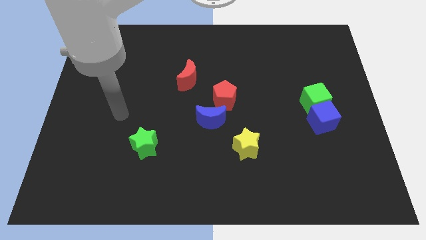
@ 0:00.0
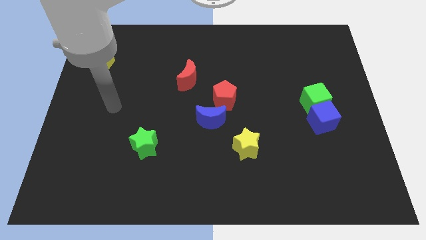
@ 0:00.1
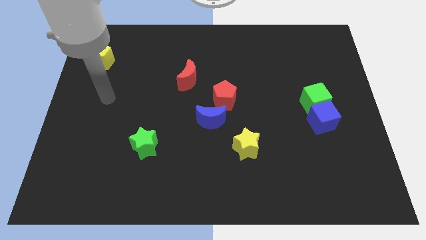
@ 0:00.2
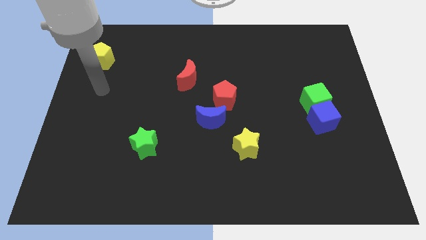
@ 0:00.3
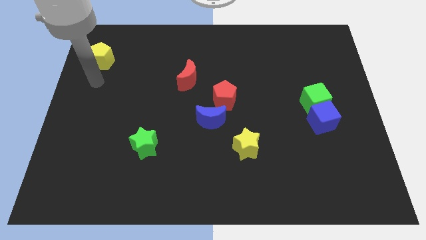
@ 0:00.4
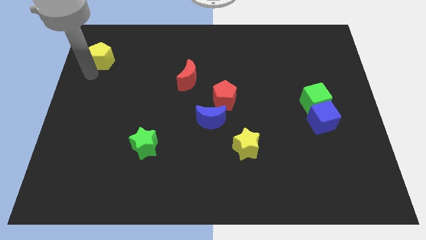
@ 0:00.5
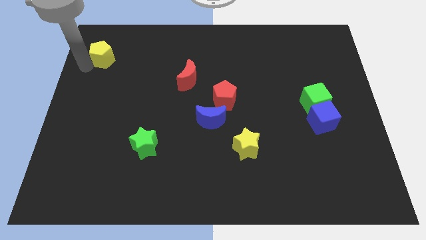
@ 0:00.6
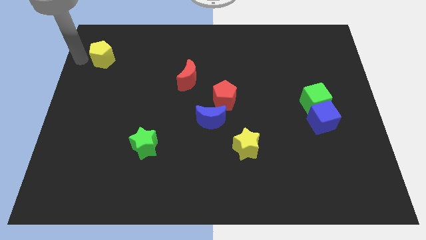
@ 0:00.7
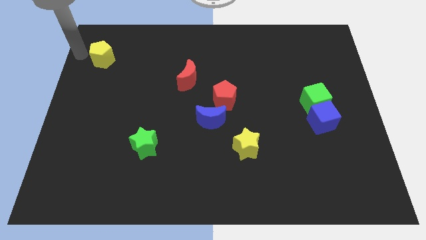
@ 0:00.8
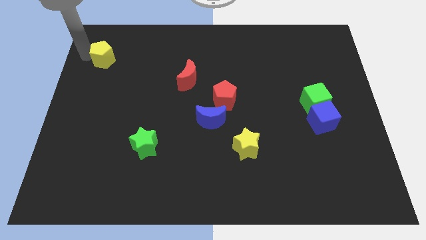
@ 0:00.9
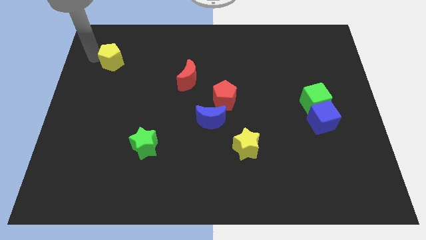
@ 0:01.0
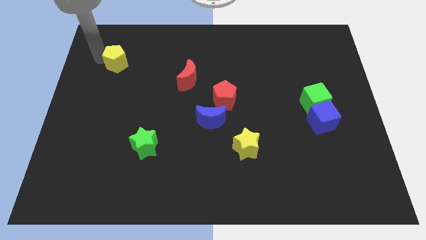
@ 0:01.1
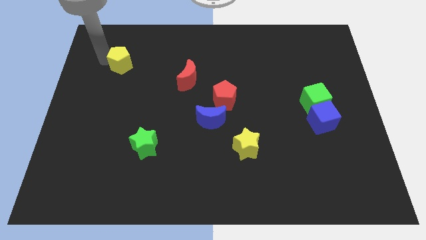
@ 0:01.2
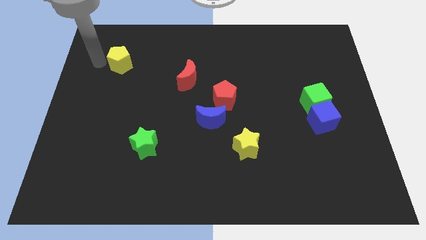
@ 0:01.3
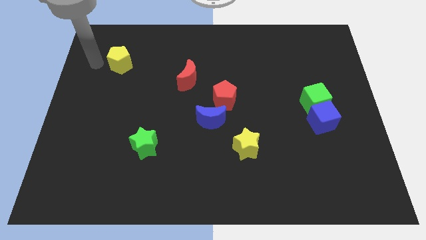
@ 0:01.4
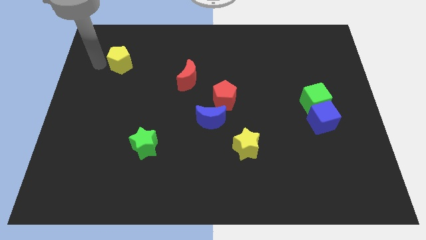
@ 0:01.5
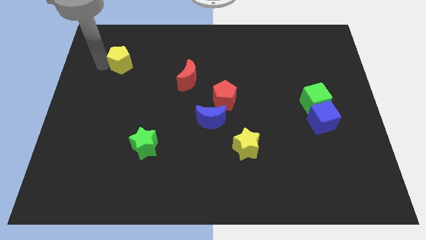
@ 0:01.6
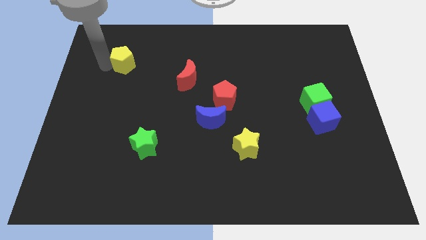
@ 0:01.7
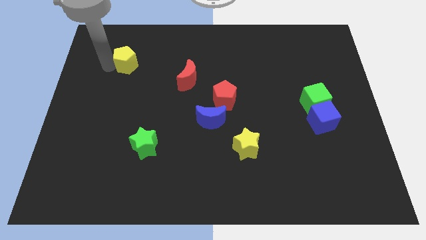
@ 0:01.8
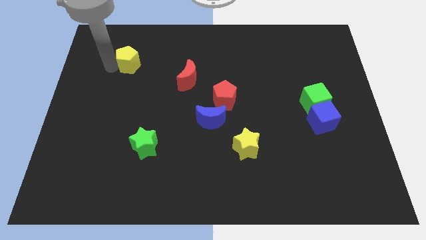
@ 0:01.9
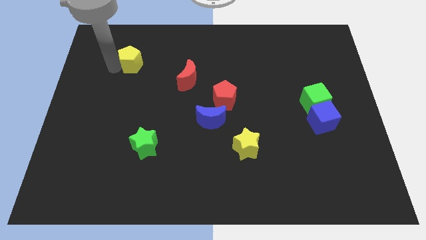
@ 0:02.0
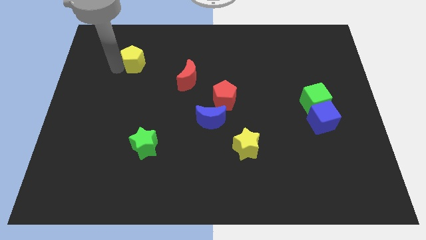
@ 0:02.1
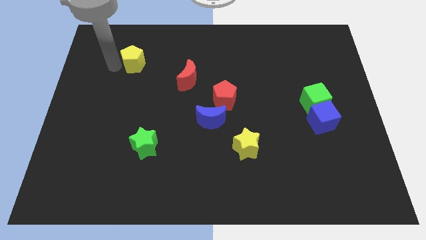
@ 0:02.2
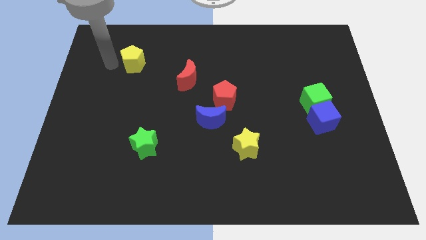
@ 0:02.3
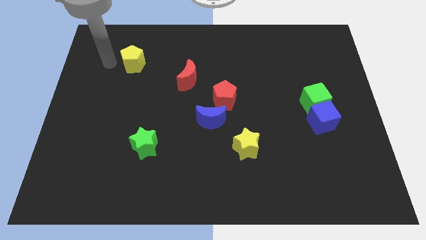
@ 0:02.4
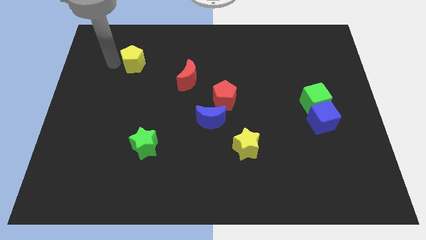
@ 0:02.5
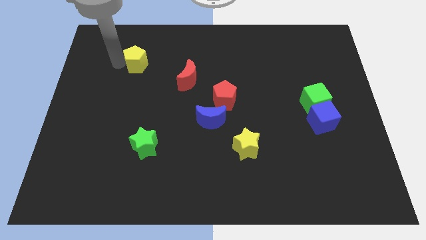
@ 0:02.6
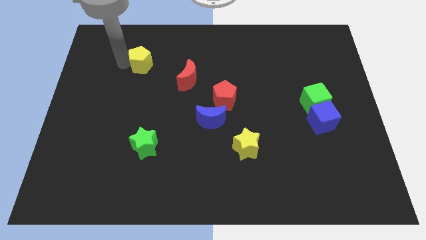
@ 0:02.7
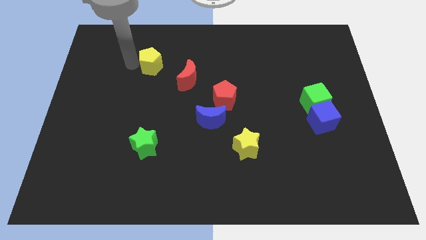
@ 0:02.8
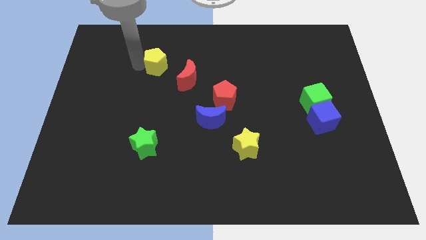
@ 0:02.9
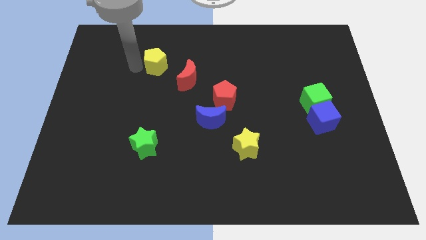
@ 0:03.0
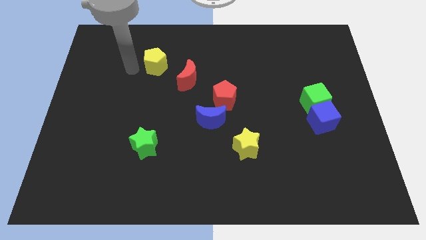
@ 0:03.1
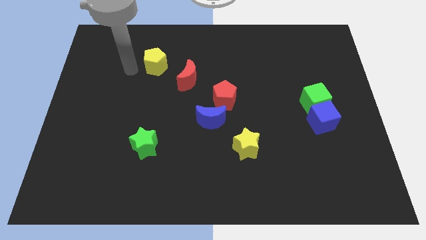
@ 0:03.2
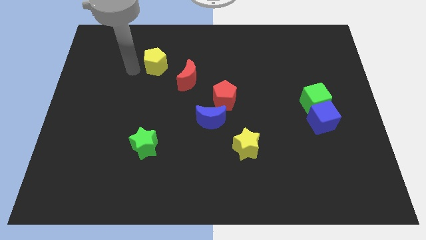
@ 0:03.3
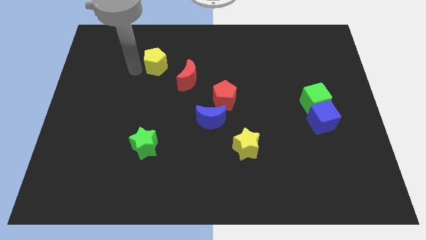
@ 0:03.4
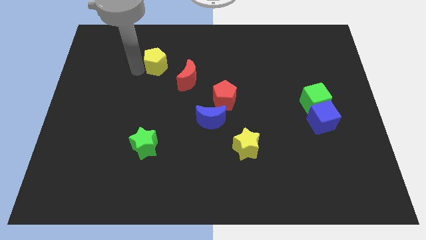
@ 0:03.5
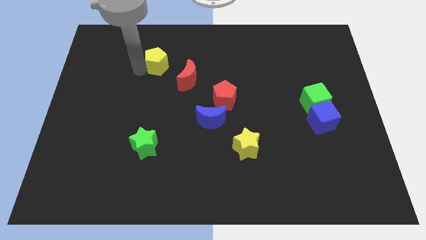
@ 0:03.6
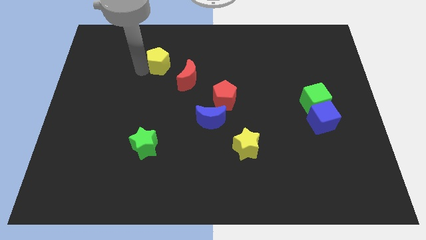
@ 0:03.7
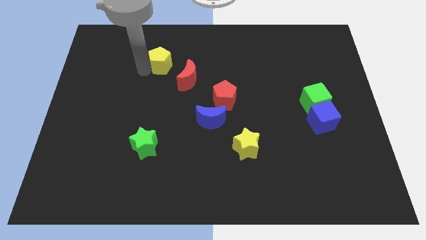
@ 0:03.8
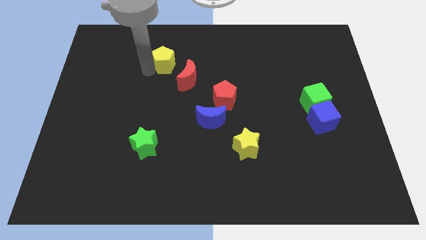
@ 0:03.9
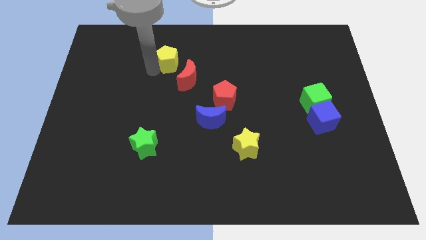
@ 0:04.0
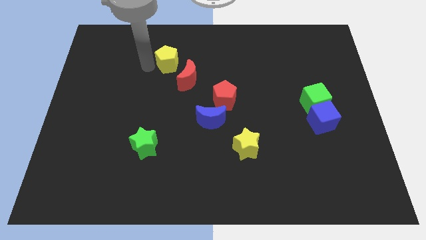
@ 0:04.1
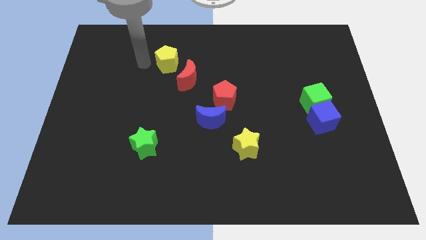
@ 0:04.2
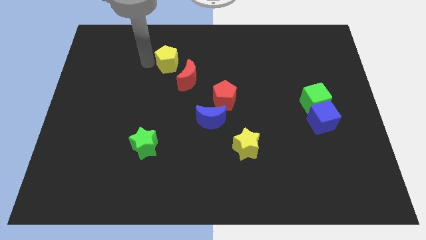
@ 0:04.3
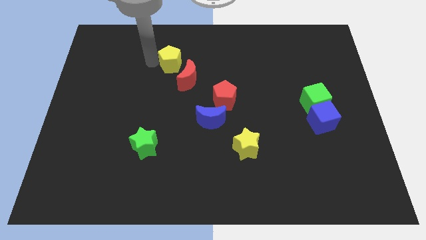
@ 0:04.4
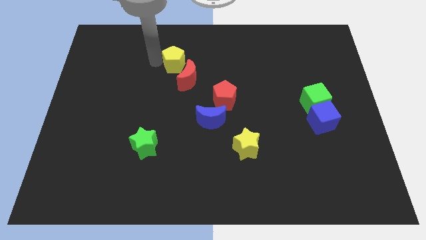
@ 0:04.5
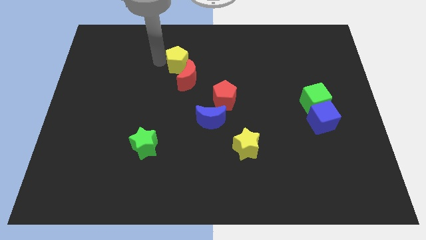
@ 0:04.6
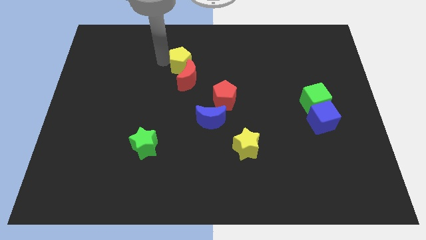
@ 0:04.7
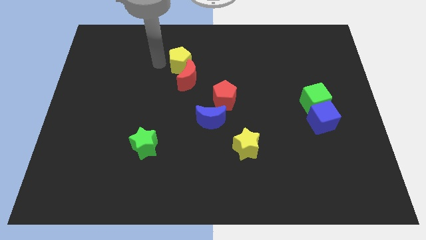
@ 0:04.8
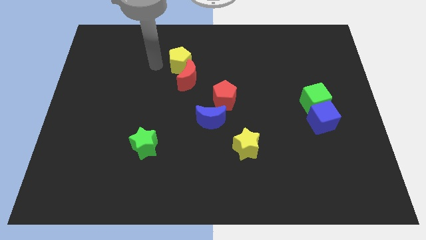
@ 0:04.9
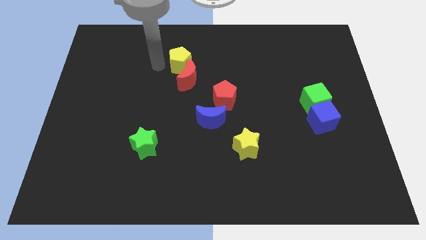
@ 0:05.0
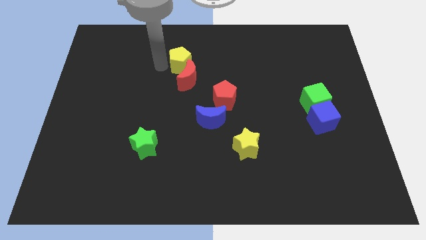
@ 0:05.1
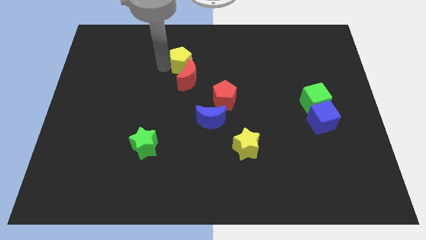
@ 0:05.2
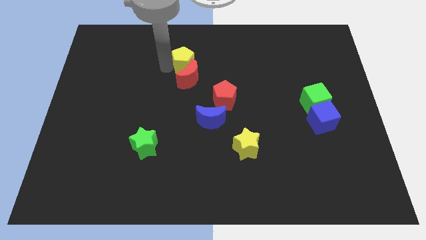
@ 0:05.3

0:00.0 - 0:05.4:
slide the yellow pentagon to the top right of the red moon

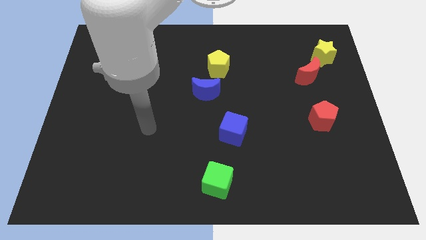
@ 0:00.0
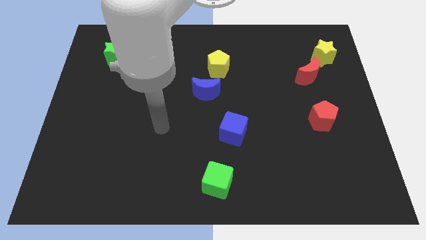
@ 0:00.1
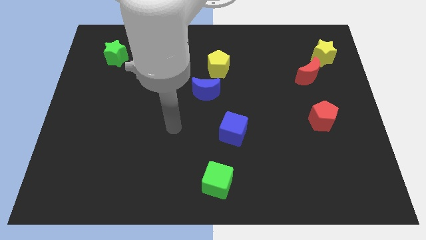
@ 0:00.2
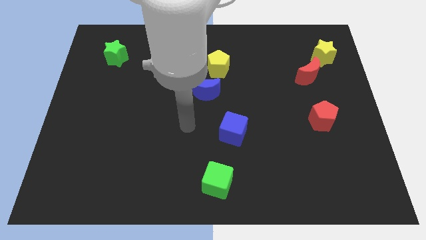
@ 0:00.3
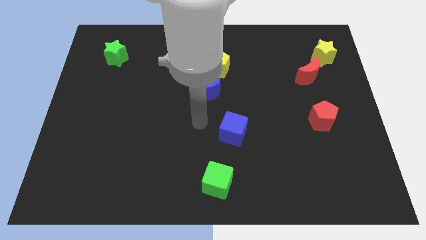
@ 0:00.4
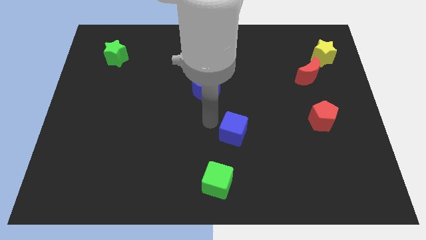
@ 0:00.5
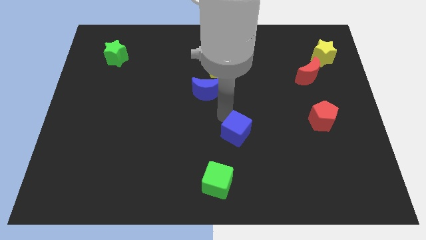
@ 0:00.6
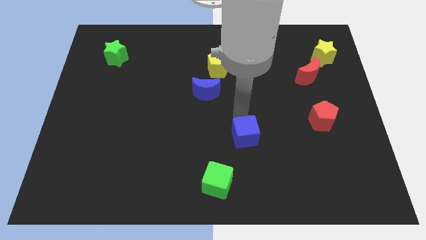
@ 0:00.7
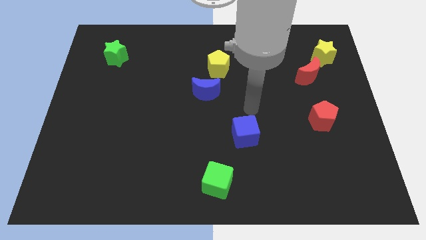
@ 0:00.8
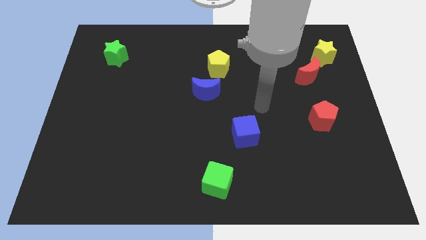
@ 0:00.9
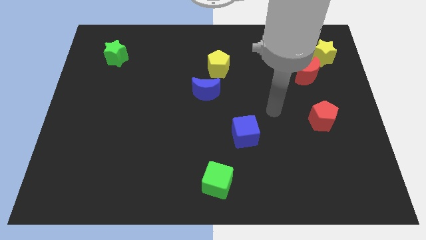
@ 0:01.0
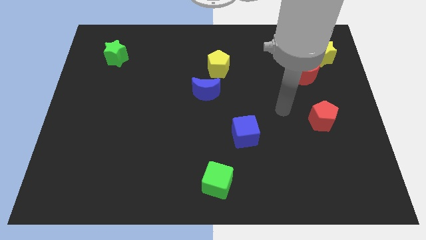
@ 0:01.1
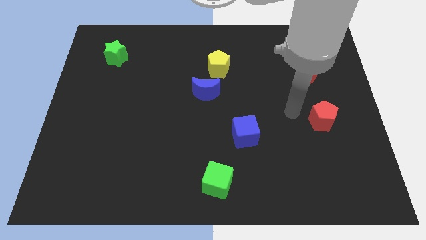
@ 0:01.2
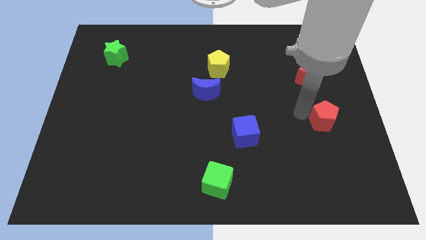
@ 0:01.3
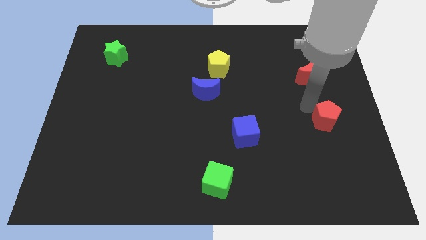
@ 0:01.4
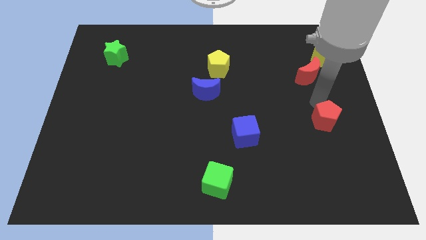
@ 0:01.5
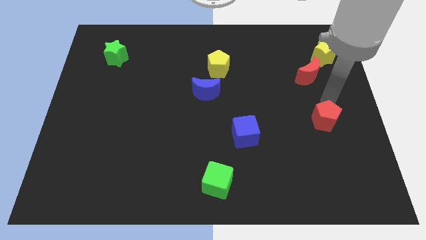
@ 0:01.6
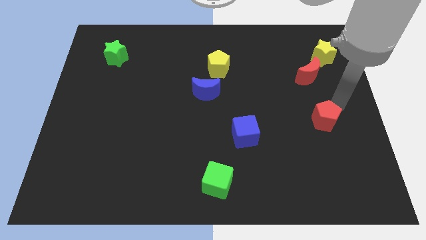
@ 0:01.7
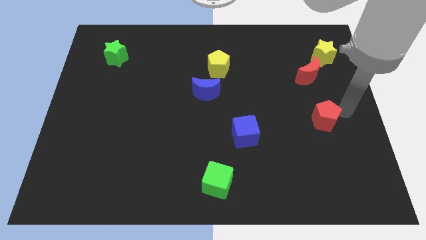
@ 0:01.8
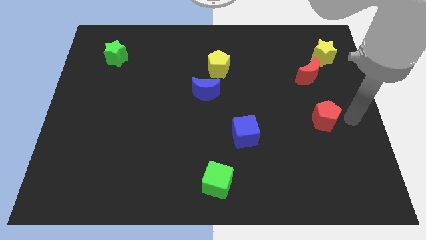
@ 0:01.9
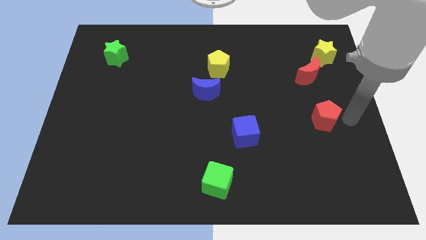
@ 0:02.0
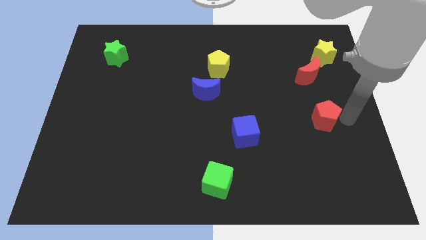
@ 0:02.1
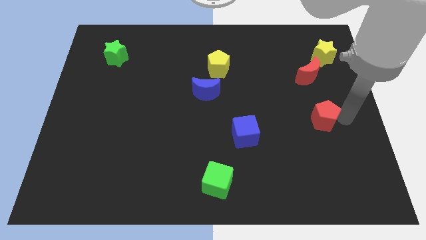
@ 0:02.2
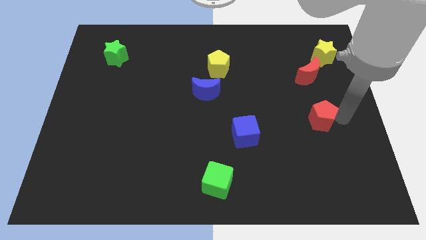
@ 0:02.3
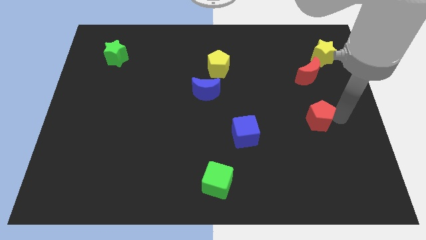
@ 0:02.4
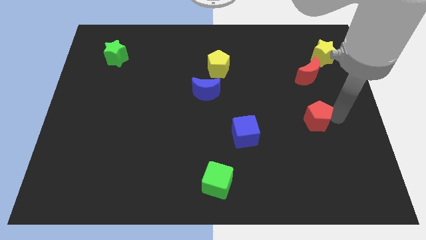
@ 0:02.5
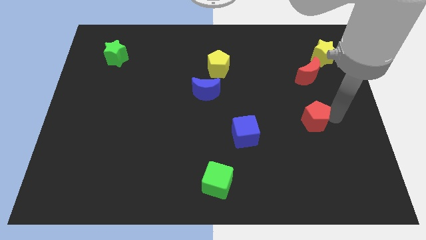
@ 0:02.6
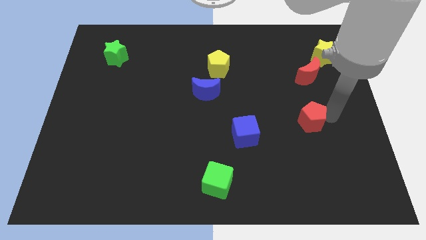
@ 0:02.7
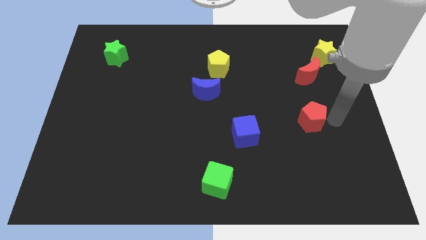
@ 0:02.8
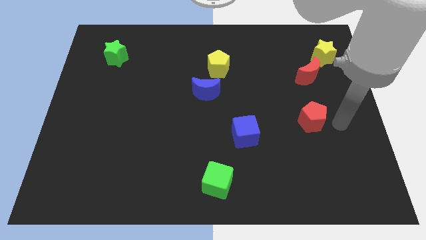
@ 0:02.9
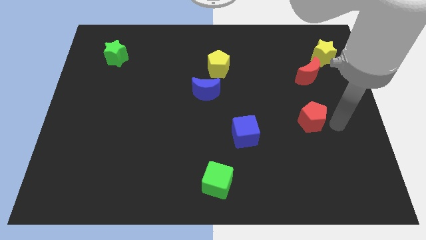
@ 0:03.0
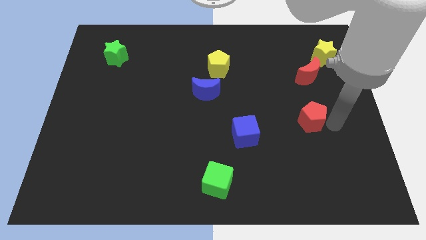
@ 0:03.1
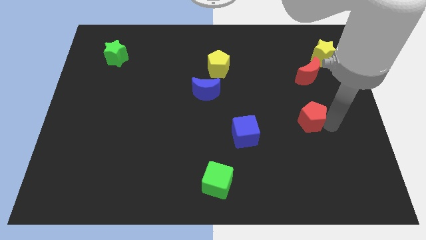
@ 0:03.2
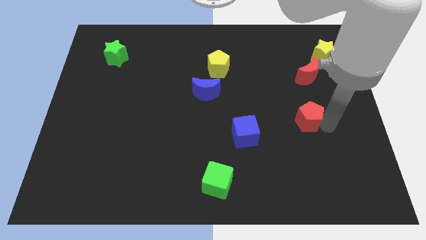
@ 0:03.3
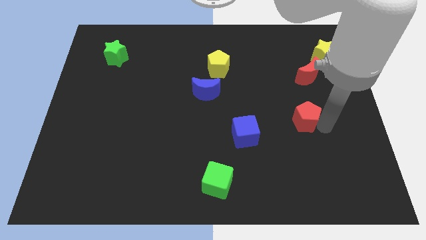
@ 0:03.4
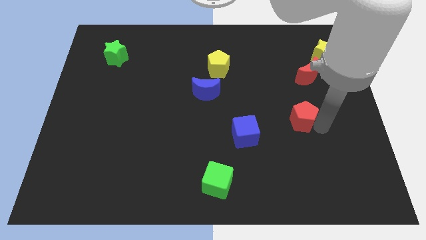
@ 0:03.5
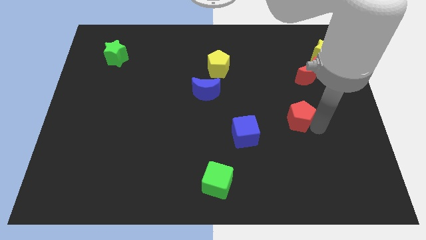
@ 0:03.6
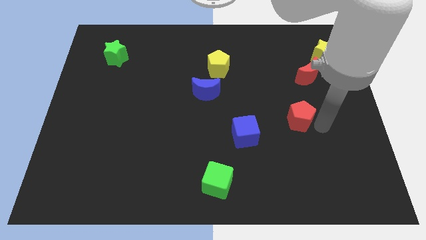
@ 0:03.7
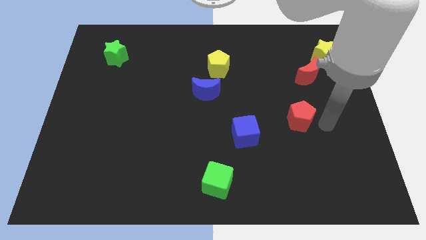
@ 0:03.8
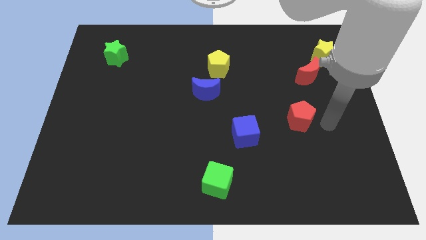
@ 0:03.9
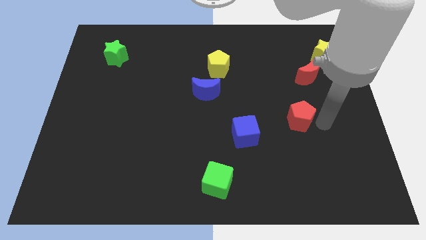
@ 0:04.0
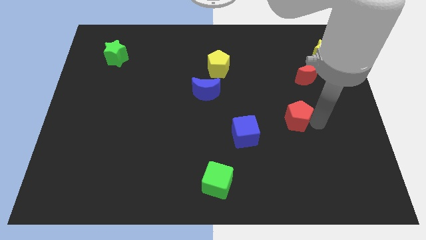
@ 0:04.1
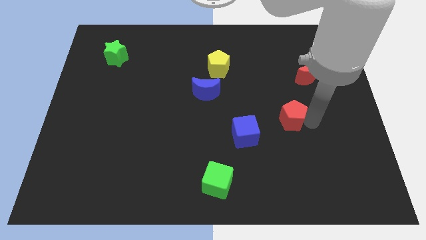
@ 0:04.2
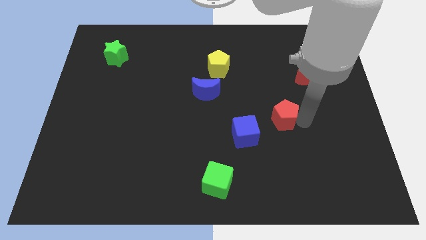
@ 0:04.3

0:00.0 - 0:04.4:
push the red pentagon to the top right of the blue cube
